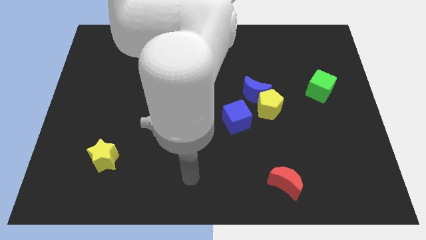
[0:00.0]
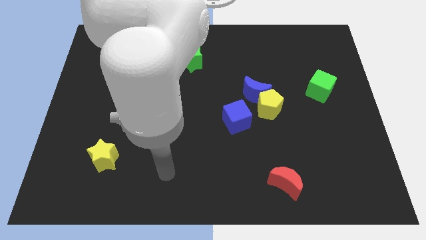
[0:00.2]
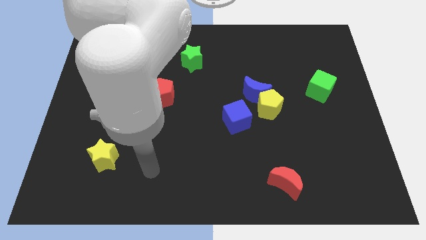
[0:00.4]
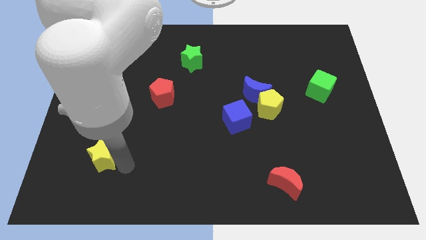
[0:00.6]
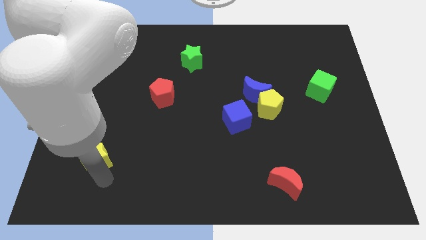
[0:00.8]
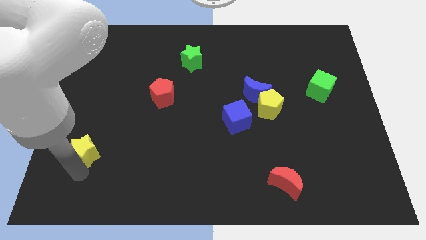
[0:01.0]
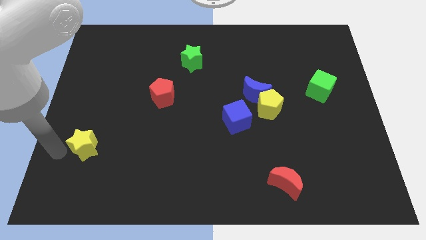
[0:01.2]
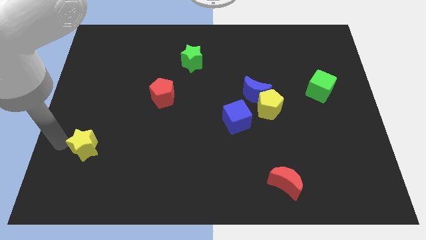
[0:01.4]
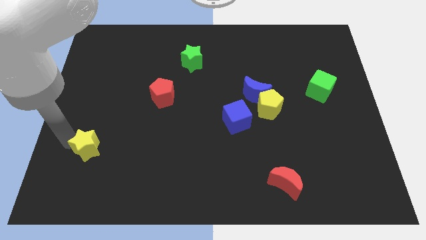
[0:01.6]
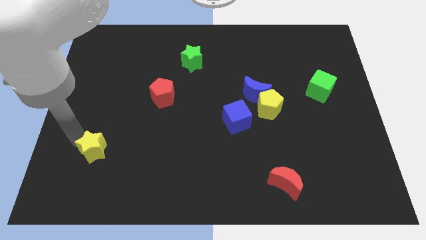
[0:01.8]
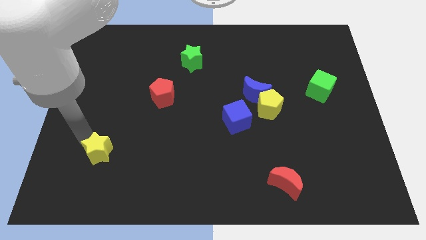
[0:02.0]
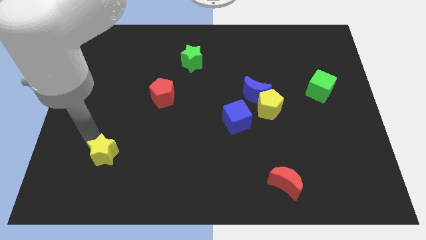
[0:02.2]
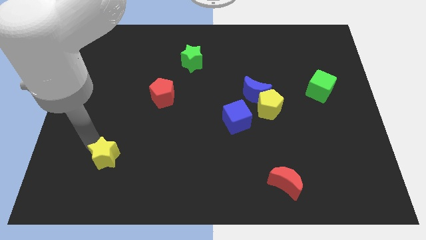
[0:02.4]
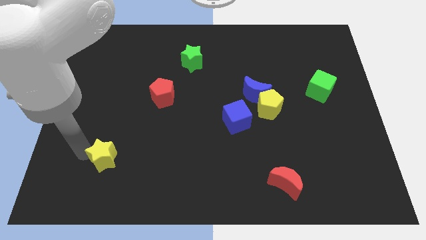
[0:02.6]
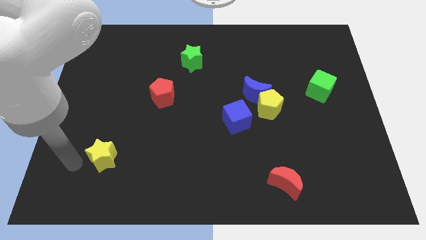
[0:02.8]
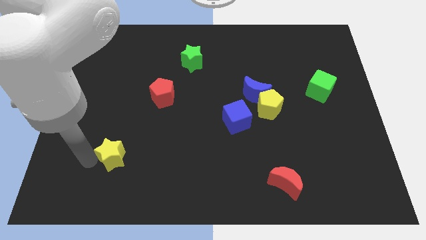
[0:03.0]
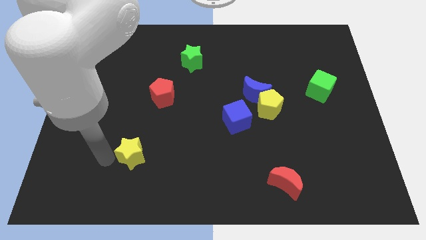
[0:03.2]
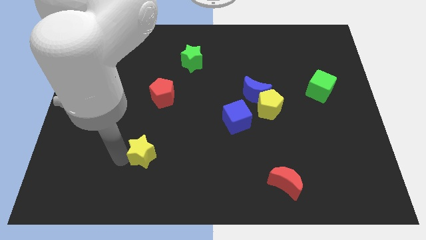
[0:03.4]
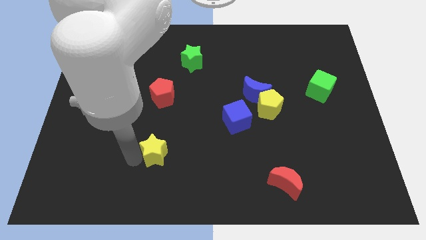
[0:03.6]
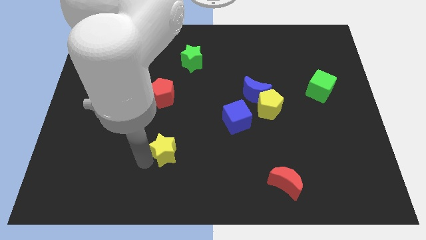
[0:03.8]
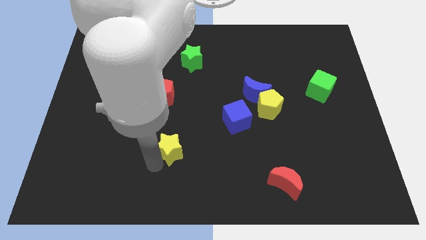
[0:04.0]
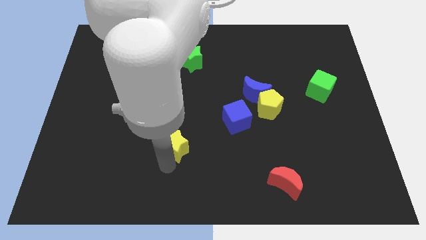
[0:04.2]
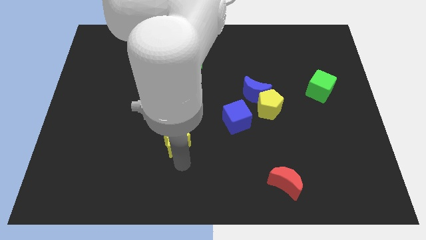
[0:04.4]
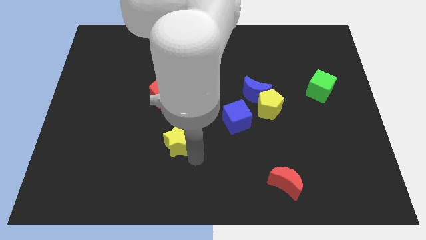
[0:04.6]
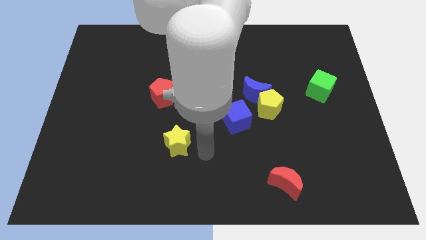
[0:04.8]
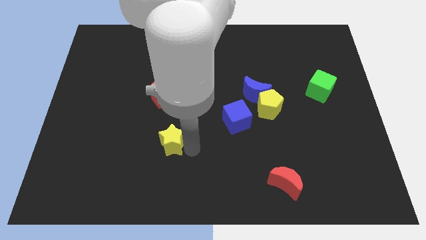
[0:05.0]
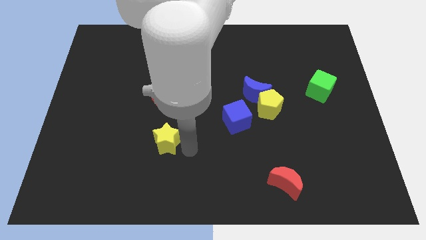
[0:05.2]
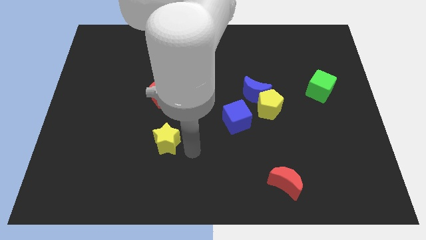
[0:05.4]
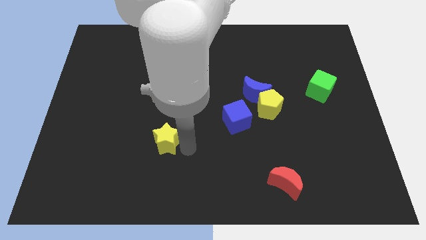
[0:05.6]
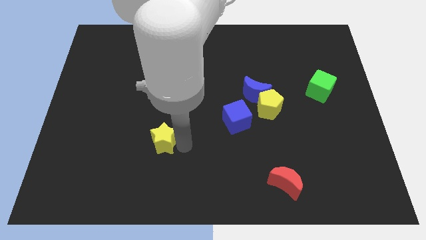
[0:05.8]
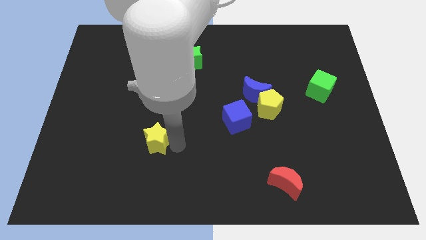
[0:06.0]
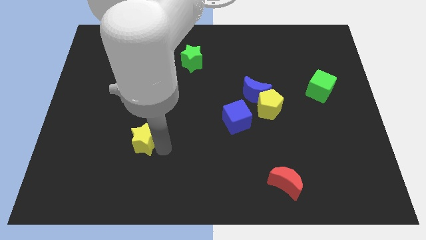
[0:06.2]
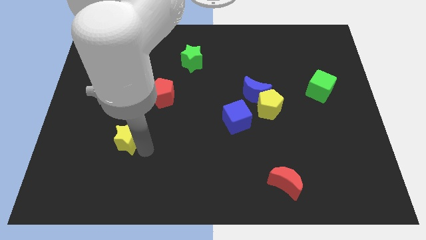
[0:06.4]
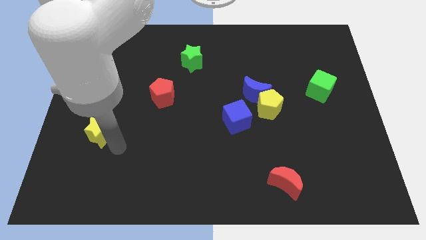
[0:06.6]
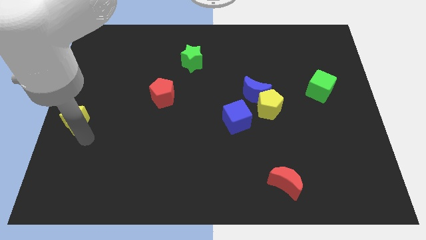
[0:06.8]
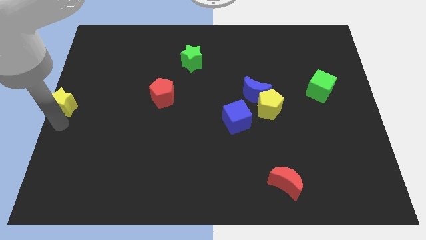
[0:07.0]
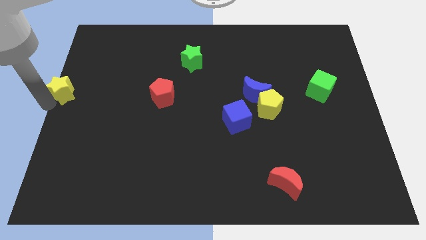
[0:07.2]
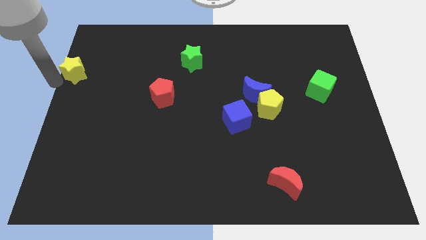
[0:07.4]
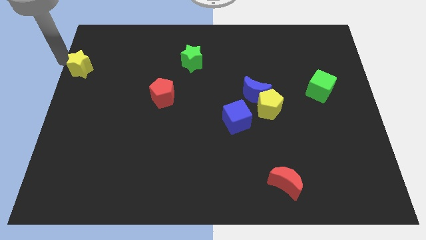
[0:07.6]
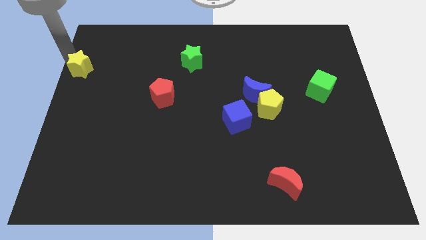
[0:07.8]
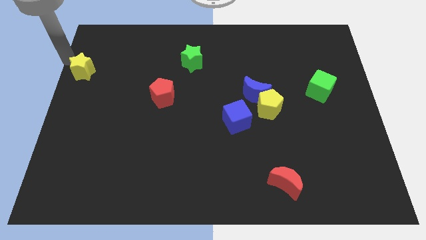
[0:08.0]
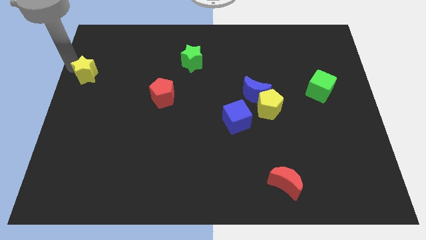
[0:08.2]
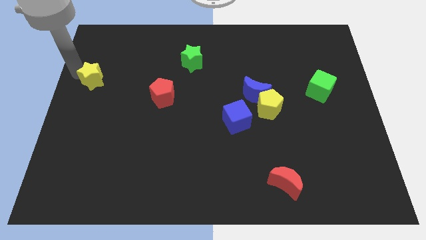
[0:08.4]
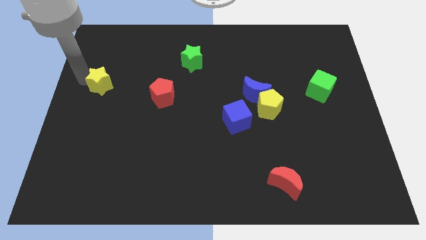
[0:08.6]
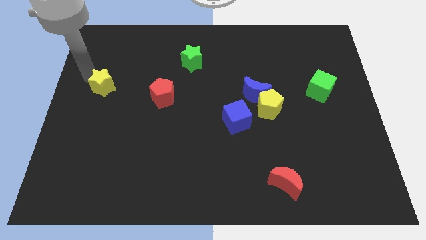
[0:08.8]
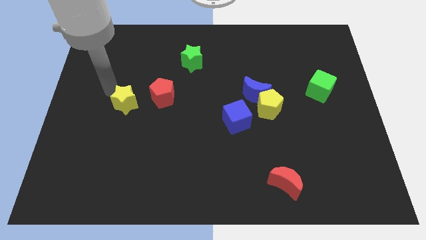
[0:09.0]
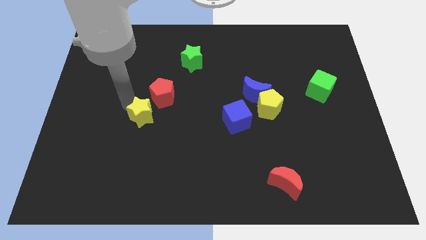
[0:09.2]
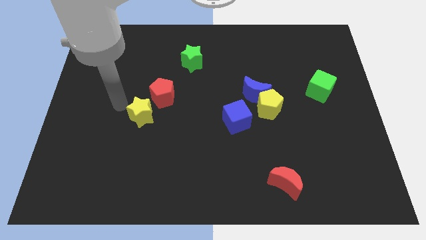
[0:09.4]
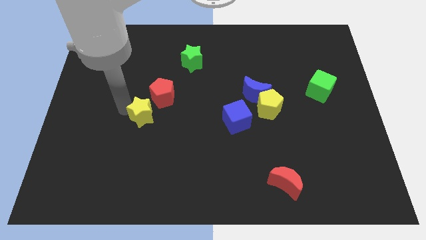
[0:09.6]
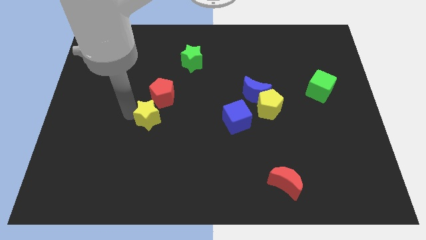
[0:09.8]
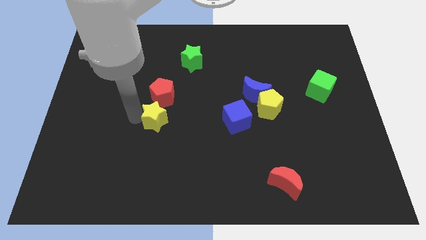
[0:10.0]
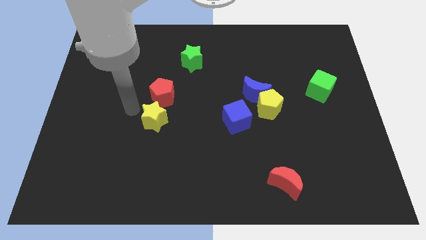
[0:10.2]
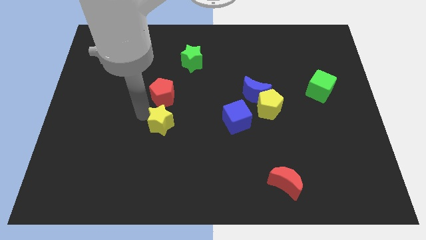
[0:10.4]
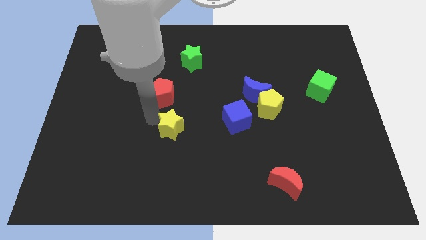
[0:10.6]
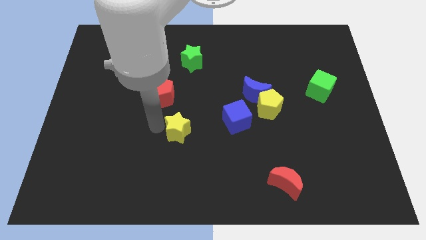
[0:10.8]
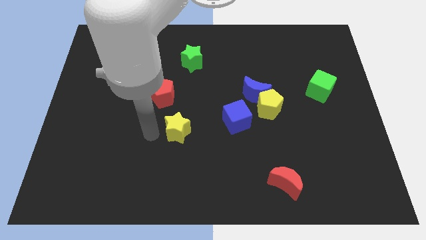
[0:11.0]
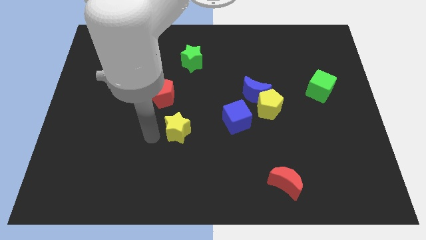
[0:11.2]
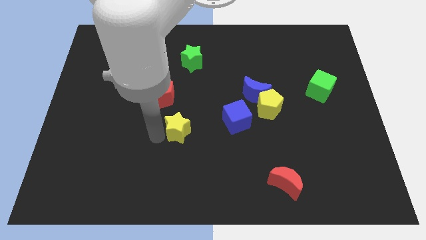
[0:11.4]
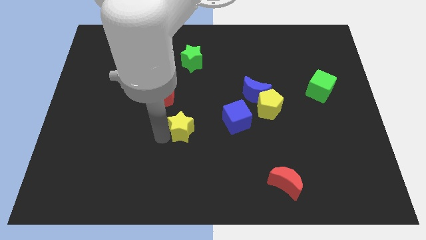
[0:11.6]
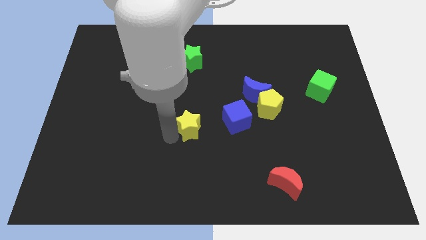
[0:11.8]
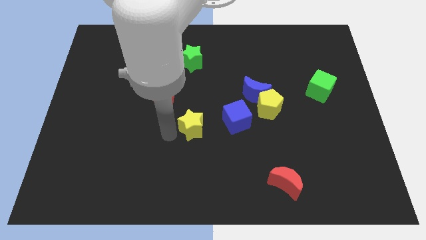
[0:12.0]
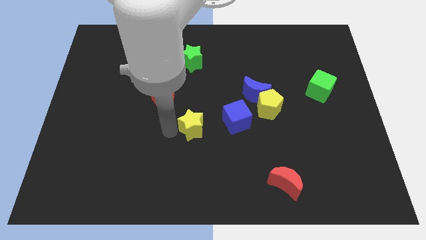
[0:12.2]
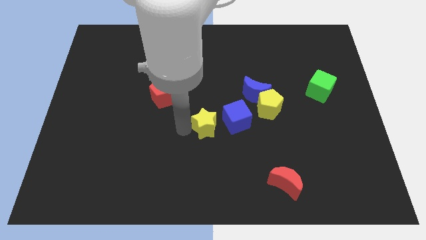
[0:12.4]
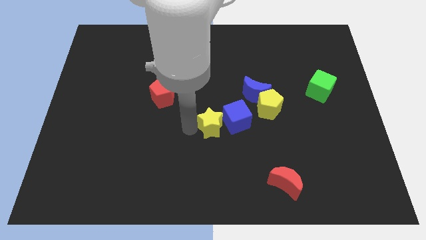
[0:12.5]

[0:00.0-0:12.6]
slide the yellow star to the blue cube

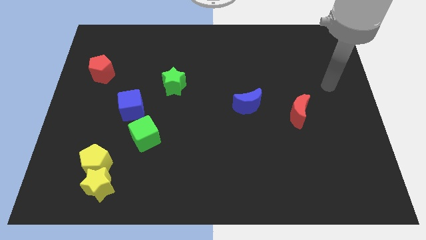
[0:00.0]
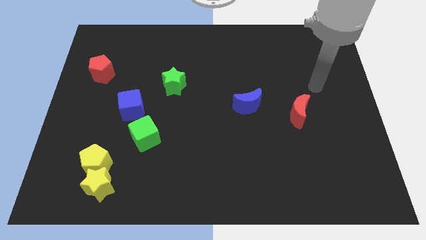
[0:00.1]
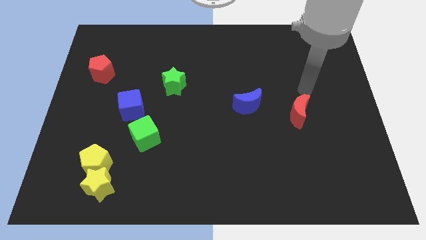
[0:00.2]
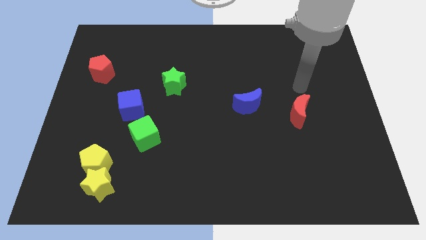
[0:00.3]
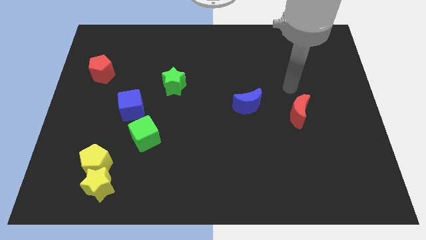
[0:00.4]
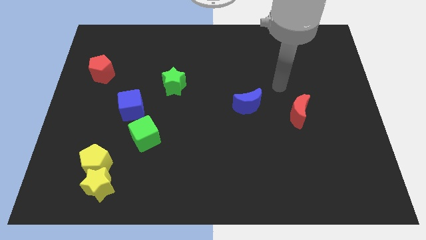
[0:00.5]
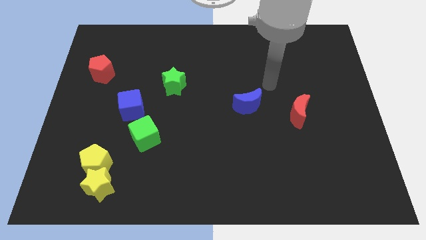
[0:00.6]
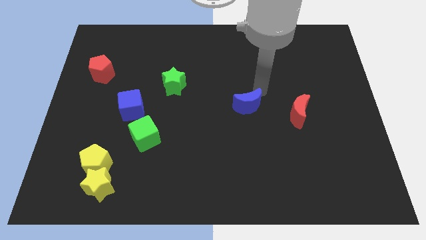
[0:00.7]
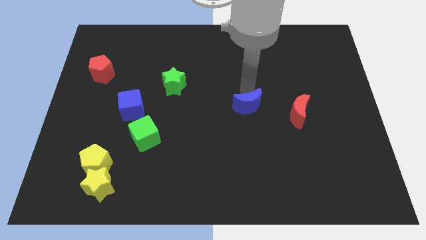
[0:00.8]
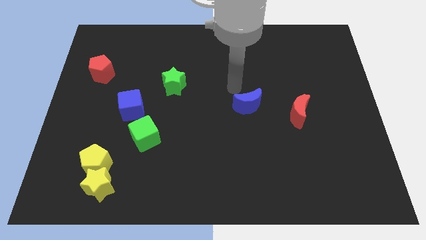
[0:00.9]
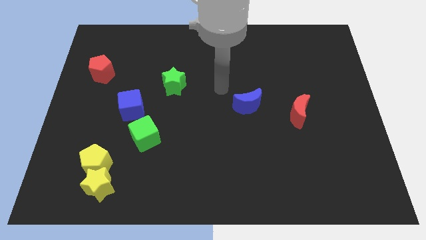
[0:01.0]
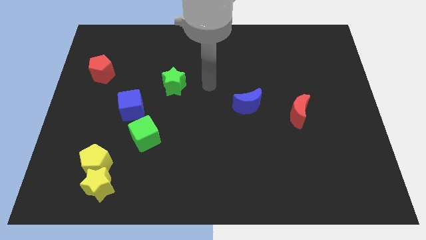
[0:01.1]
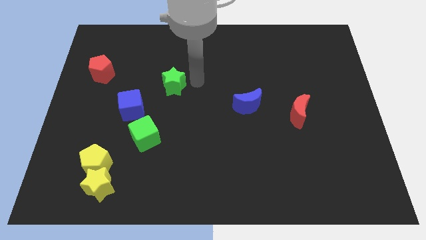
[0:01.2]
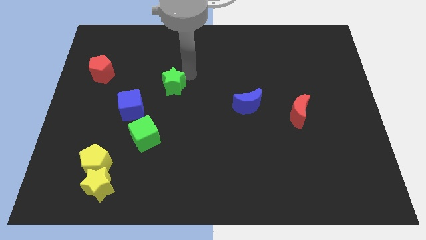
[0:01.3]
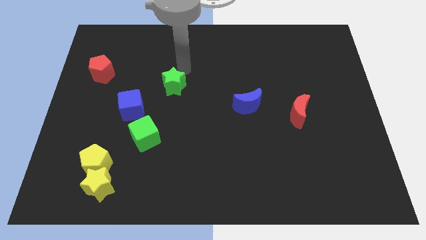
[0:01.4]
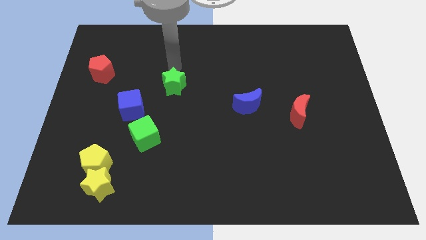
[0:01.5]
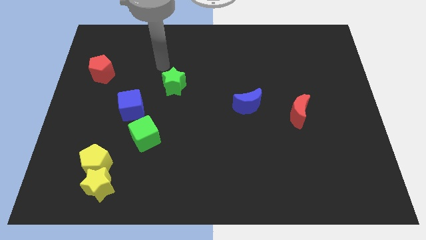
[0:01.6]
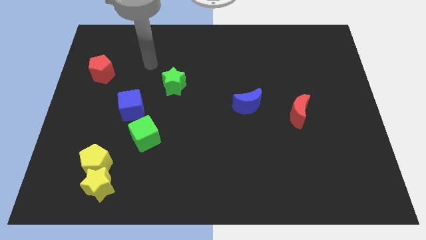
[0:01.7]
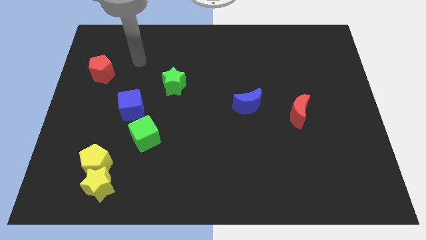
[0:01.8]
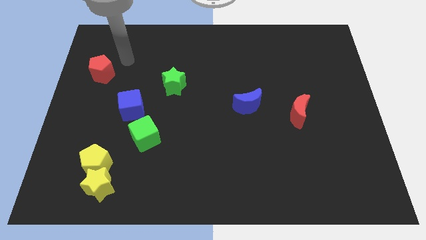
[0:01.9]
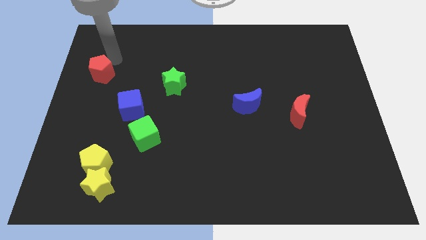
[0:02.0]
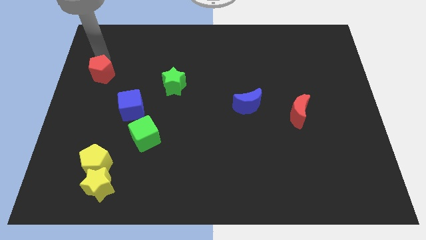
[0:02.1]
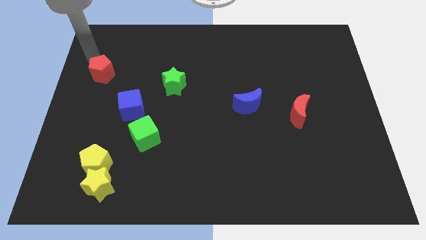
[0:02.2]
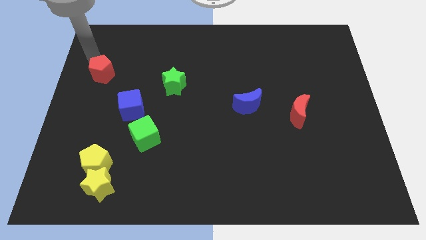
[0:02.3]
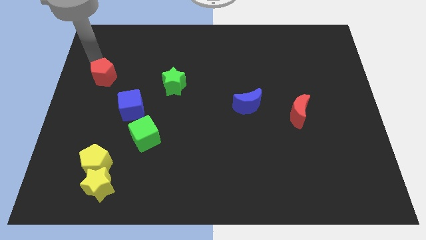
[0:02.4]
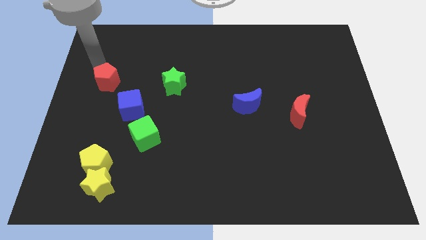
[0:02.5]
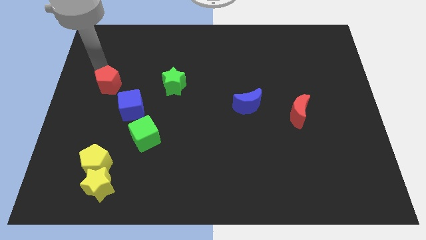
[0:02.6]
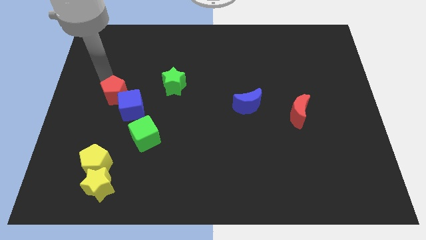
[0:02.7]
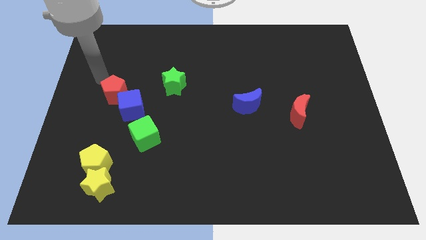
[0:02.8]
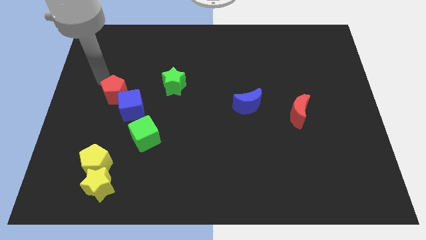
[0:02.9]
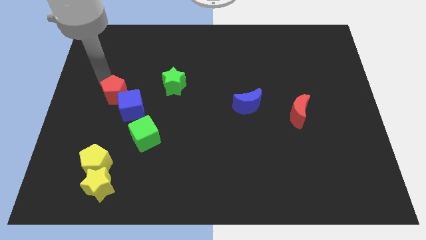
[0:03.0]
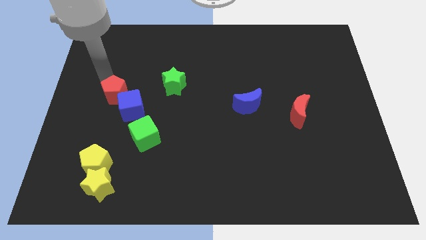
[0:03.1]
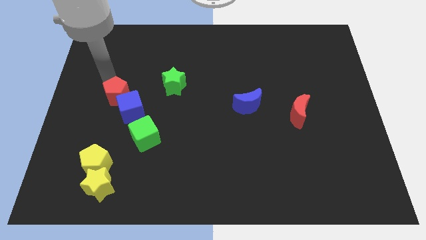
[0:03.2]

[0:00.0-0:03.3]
slide the red pentagon towards the blue cube
